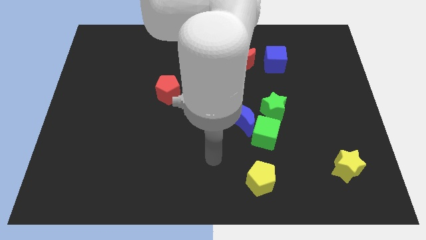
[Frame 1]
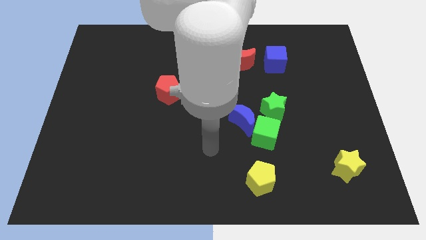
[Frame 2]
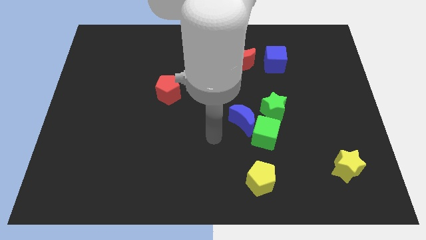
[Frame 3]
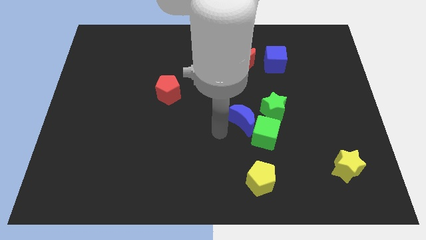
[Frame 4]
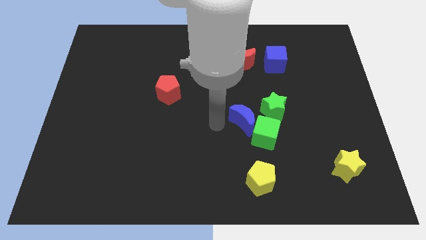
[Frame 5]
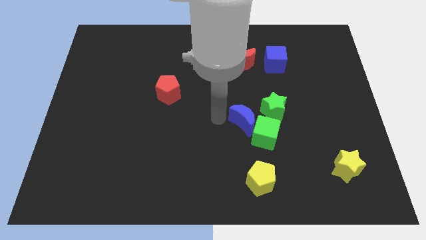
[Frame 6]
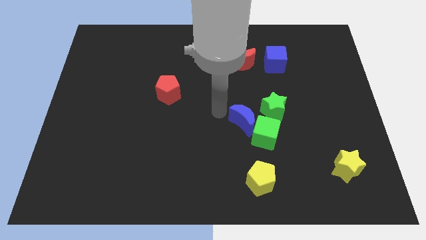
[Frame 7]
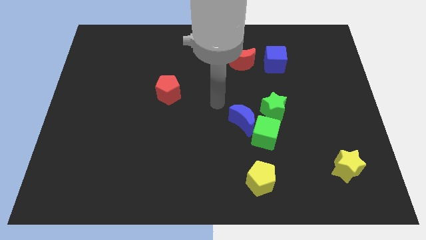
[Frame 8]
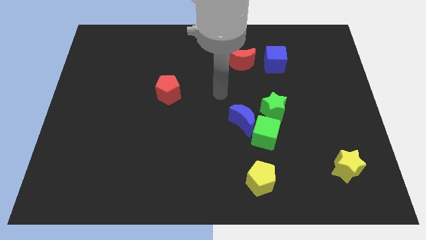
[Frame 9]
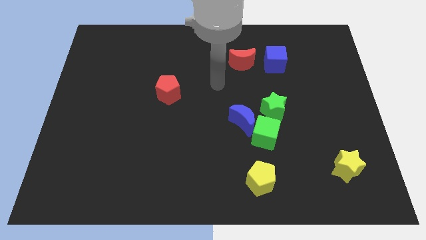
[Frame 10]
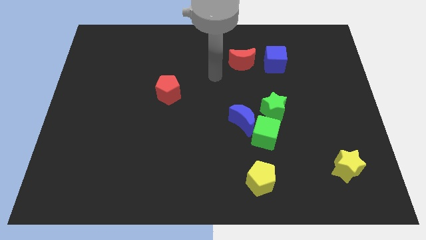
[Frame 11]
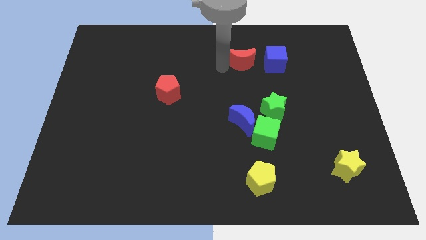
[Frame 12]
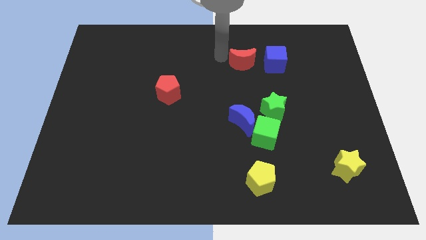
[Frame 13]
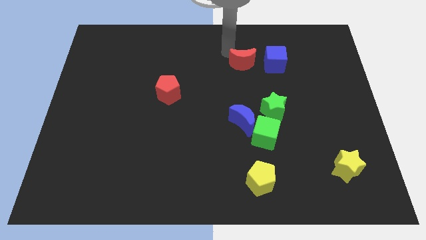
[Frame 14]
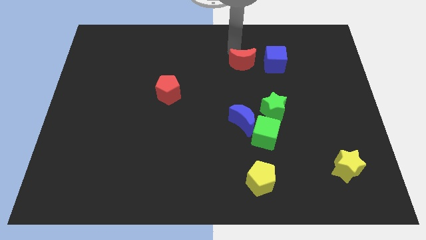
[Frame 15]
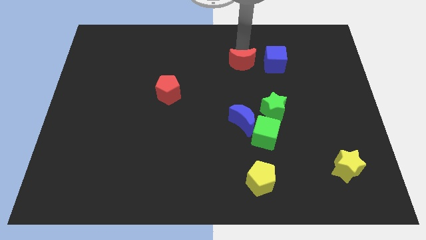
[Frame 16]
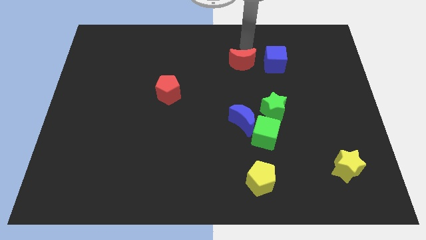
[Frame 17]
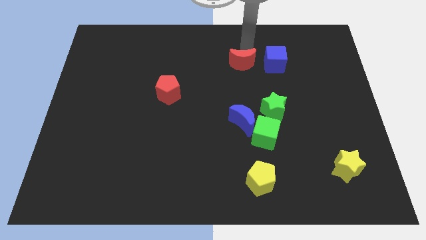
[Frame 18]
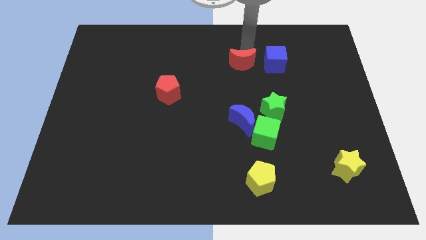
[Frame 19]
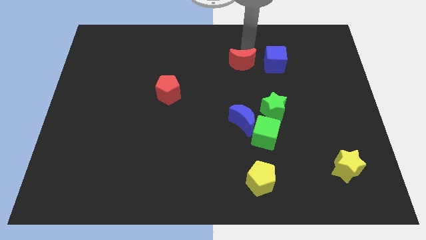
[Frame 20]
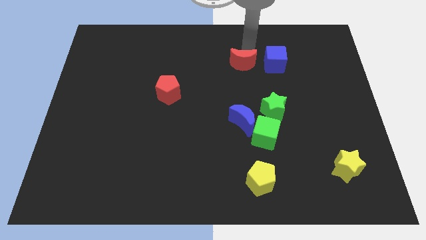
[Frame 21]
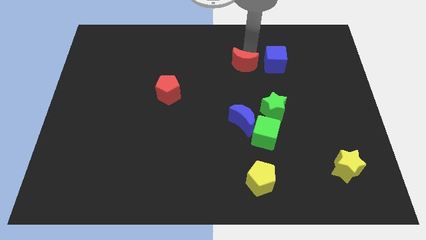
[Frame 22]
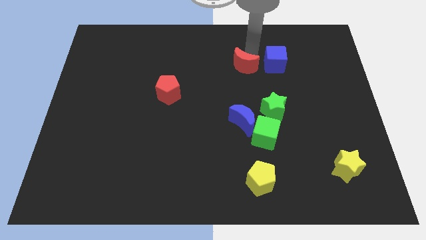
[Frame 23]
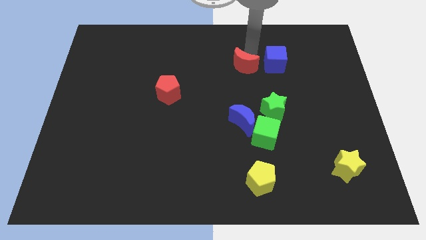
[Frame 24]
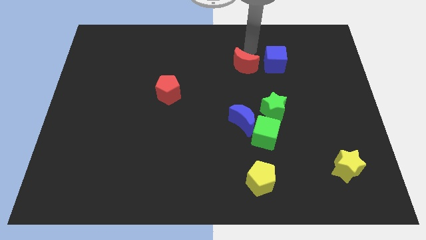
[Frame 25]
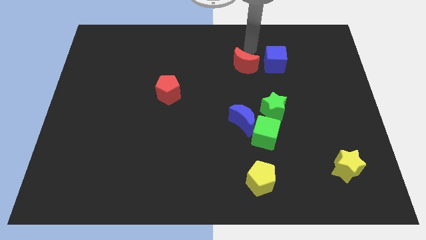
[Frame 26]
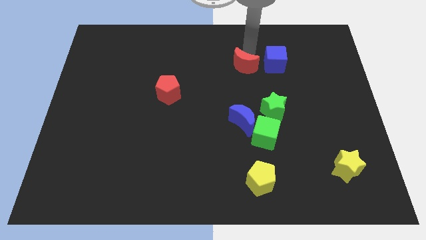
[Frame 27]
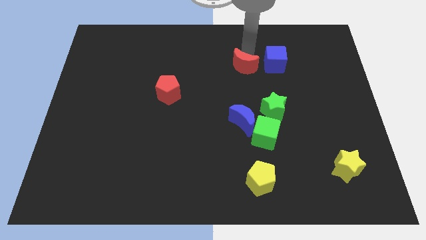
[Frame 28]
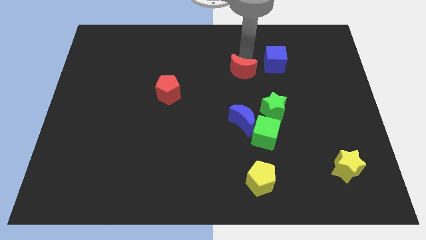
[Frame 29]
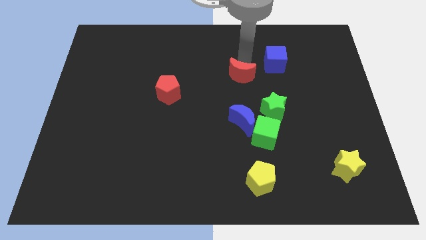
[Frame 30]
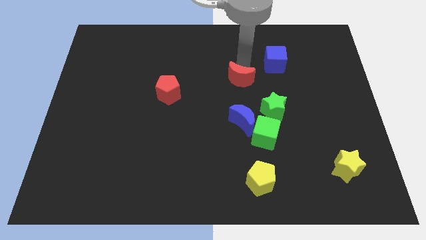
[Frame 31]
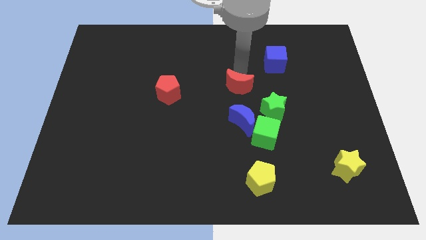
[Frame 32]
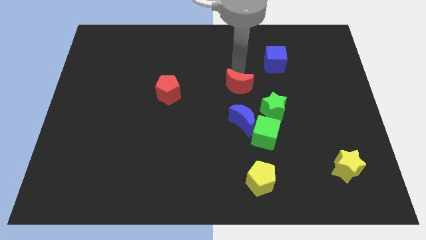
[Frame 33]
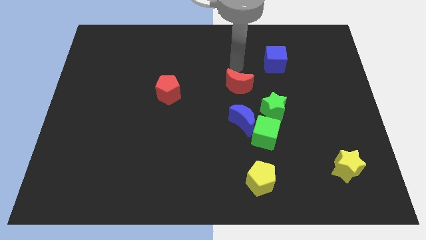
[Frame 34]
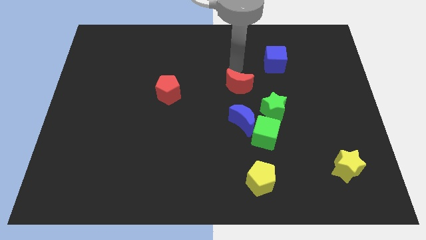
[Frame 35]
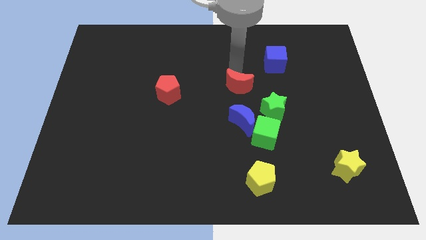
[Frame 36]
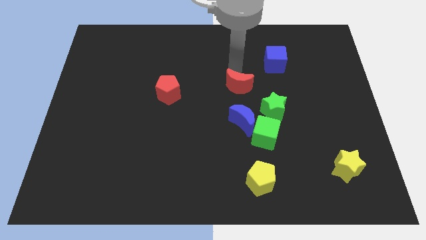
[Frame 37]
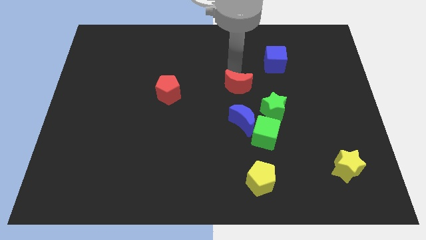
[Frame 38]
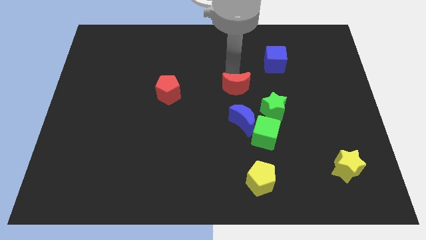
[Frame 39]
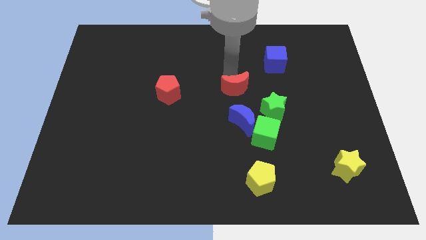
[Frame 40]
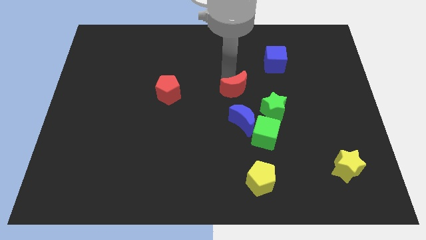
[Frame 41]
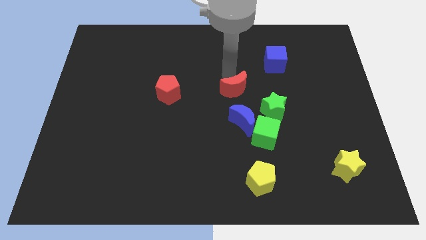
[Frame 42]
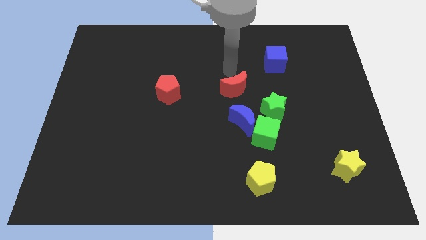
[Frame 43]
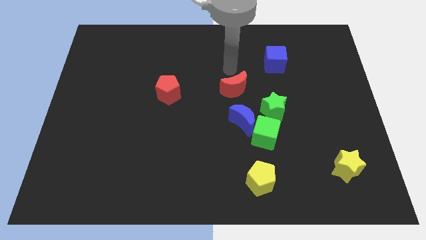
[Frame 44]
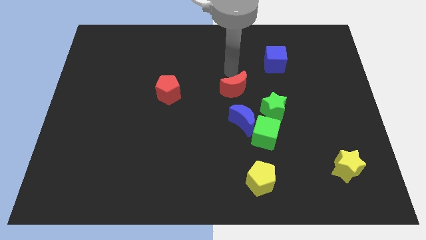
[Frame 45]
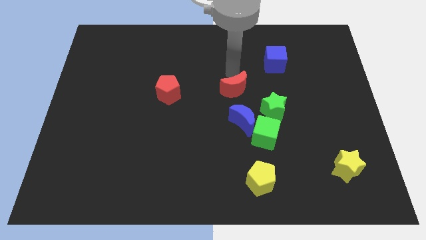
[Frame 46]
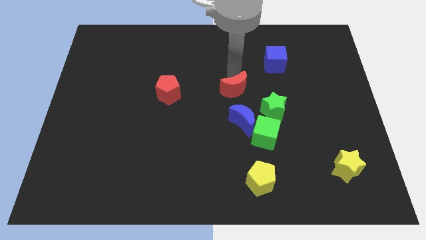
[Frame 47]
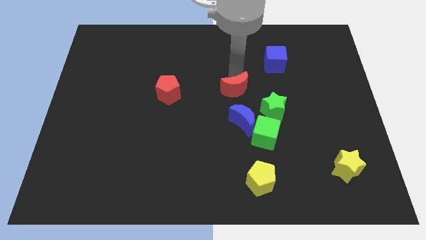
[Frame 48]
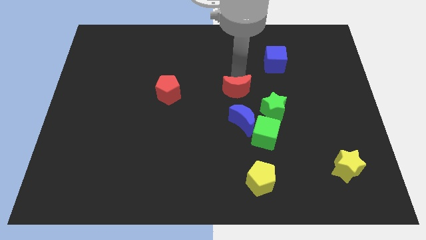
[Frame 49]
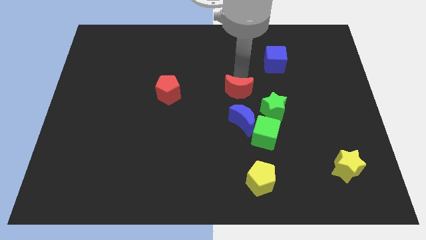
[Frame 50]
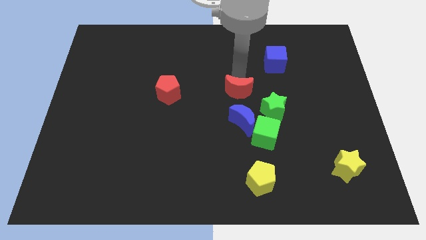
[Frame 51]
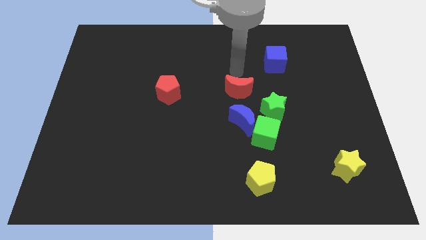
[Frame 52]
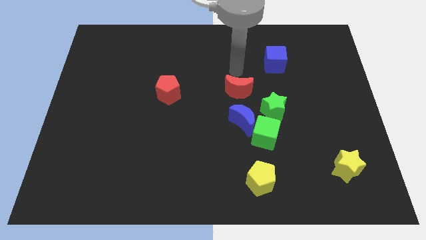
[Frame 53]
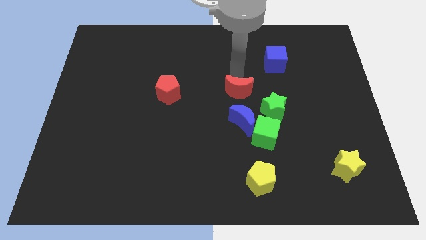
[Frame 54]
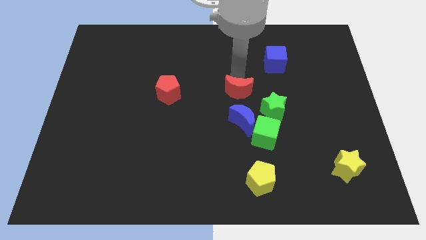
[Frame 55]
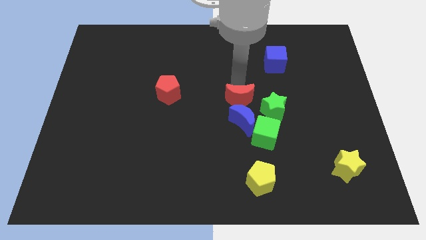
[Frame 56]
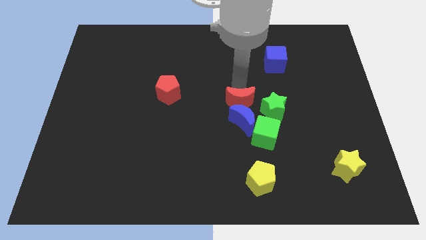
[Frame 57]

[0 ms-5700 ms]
put the red moon next to the blue moon

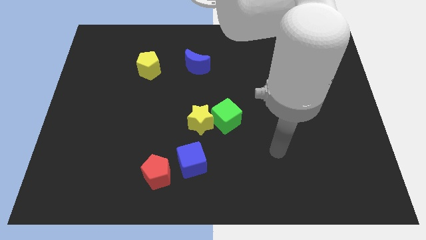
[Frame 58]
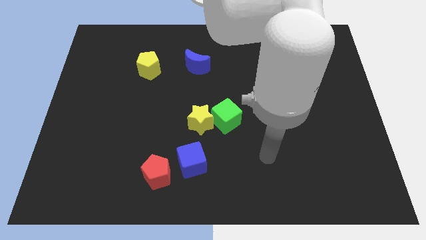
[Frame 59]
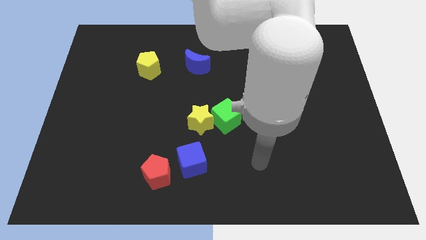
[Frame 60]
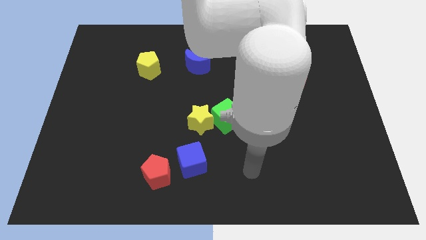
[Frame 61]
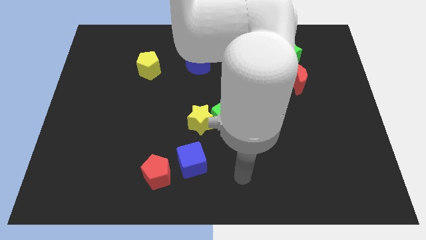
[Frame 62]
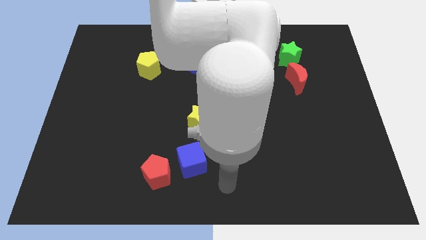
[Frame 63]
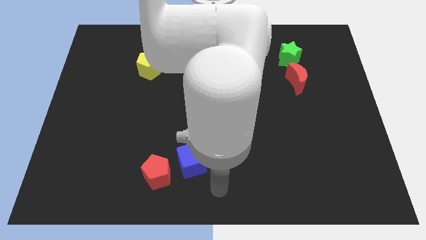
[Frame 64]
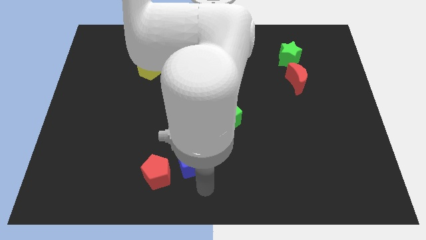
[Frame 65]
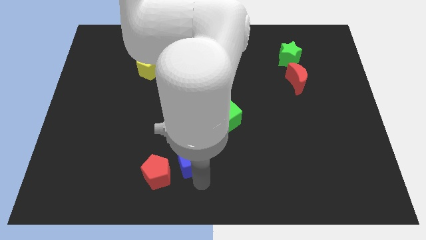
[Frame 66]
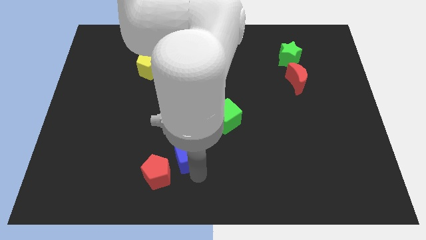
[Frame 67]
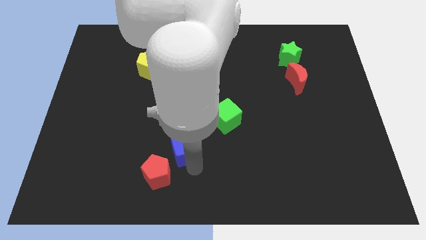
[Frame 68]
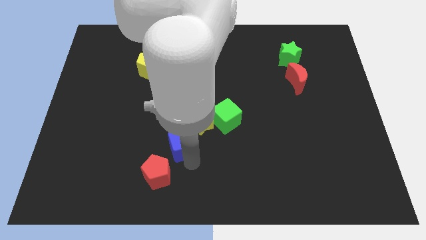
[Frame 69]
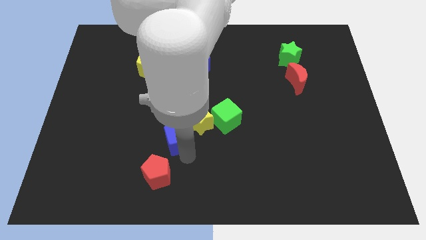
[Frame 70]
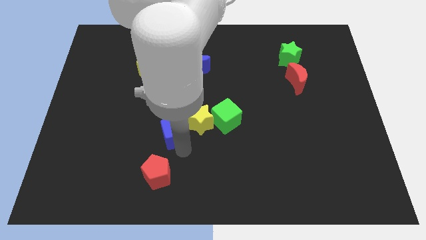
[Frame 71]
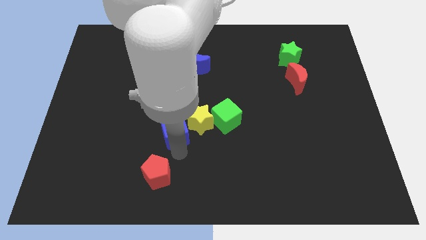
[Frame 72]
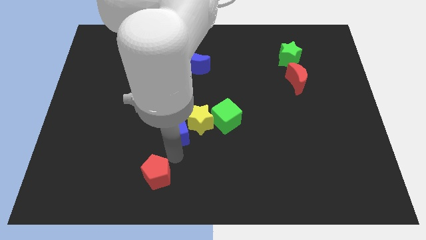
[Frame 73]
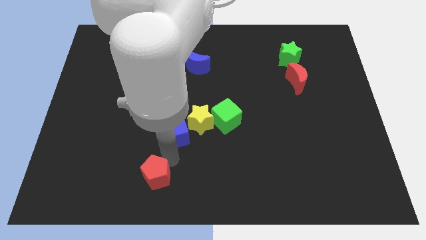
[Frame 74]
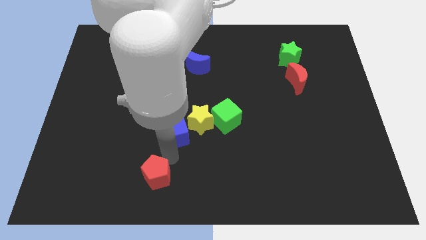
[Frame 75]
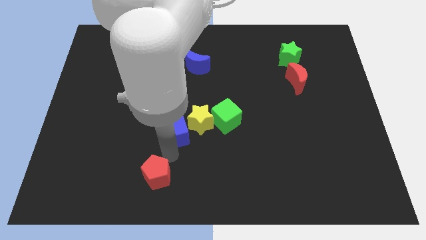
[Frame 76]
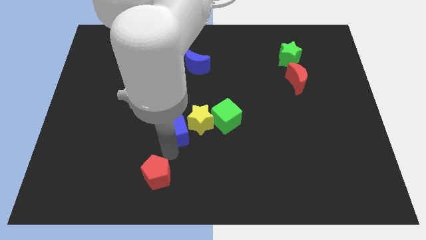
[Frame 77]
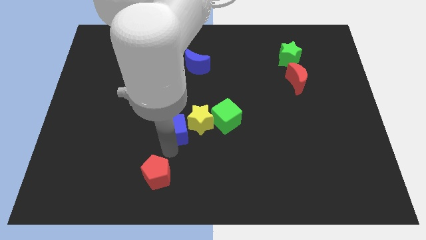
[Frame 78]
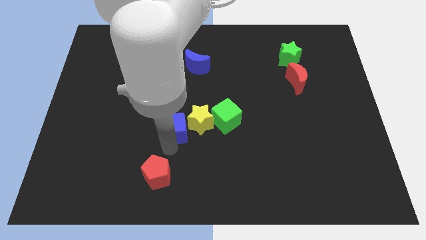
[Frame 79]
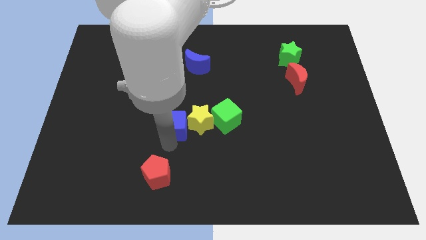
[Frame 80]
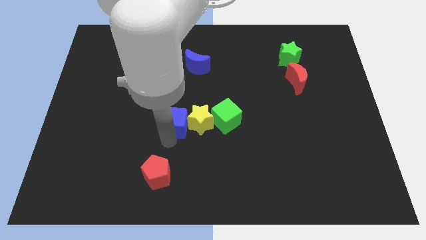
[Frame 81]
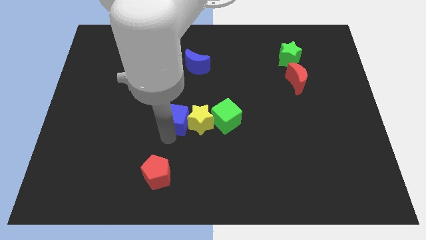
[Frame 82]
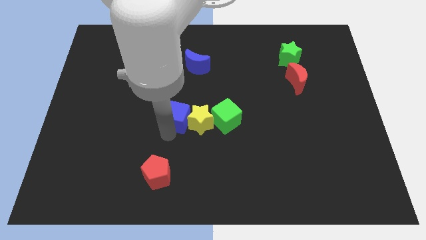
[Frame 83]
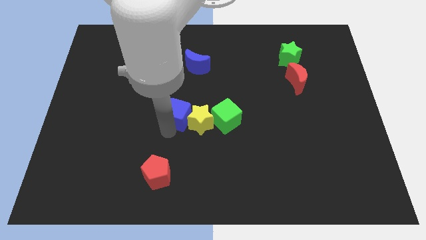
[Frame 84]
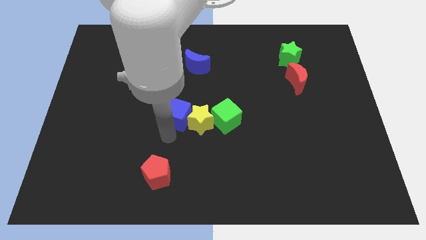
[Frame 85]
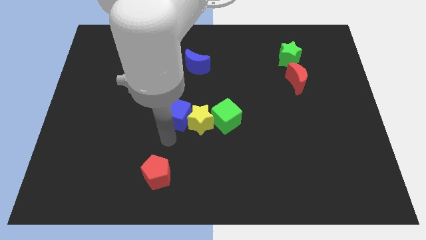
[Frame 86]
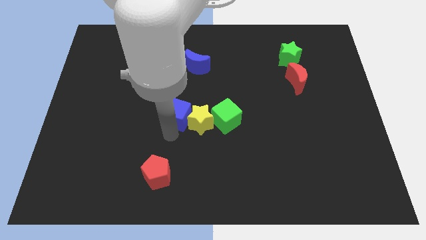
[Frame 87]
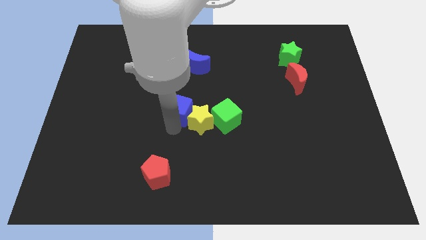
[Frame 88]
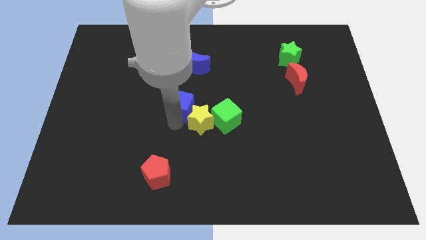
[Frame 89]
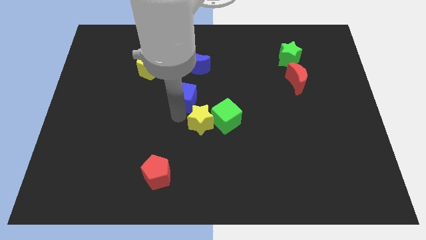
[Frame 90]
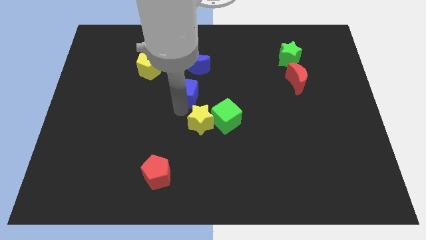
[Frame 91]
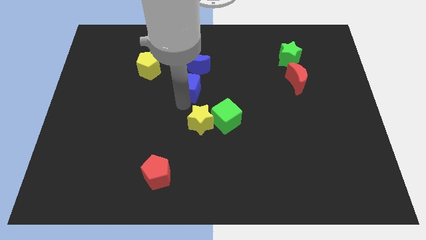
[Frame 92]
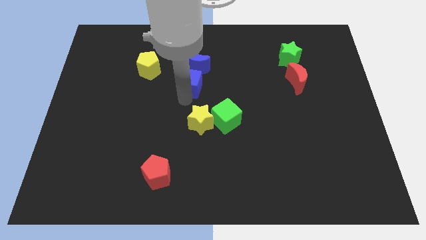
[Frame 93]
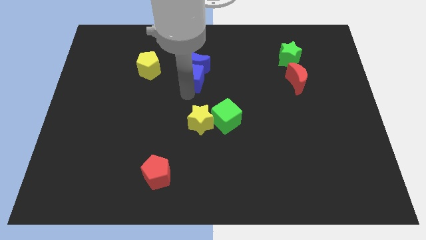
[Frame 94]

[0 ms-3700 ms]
put the blue cube close to the blue moon
